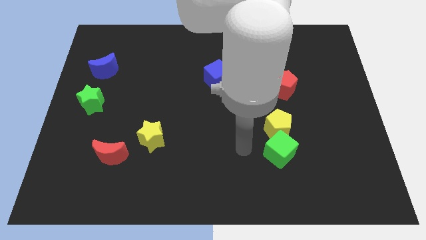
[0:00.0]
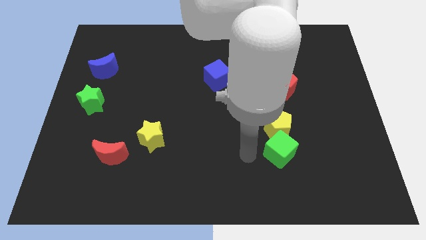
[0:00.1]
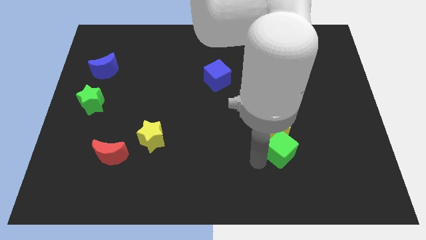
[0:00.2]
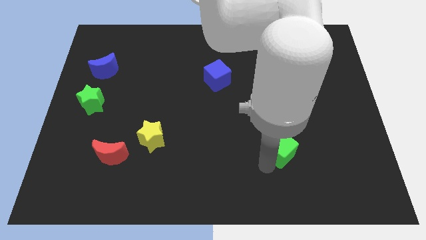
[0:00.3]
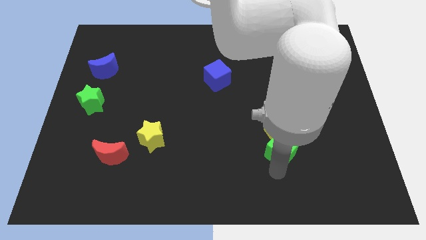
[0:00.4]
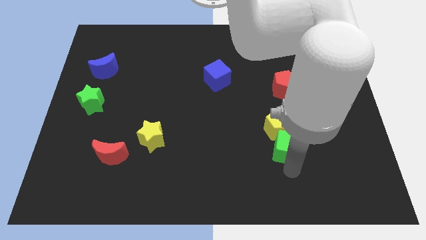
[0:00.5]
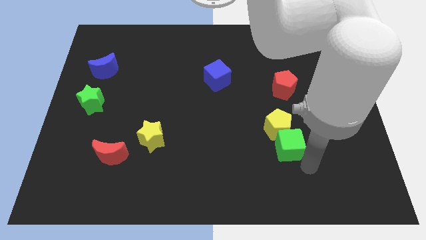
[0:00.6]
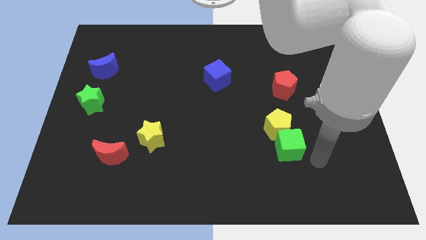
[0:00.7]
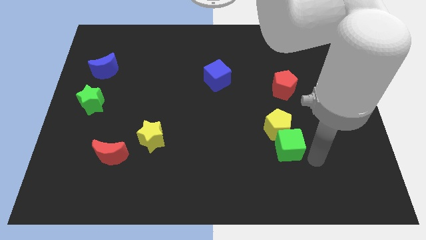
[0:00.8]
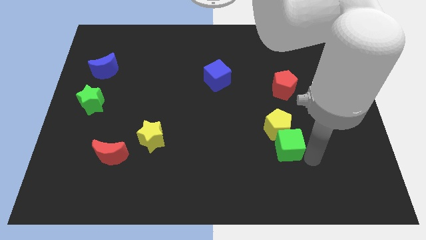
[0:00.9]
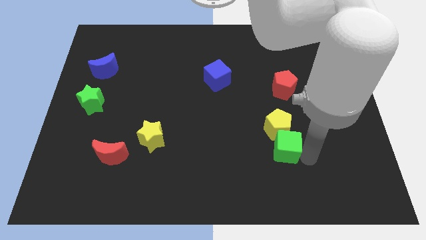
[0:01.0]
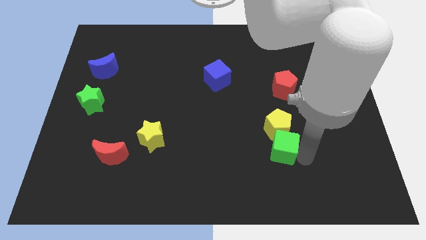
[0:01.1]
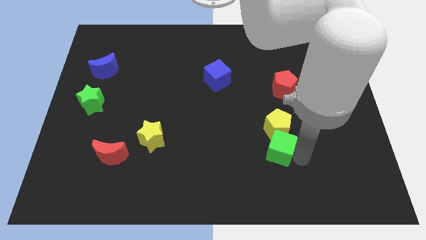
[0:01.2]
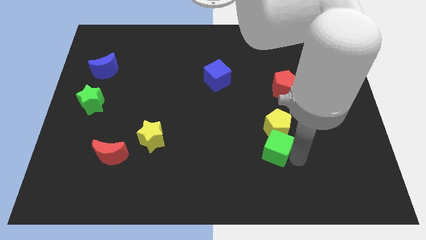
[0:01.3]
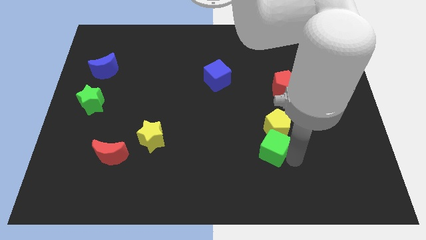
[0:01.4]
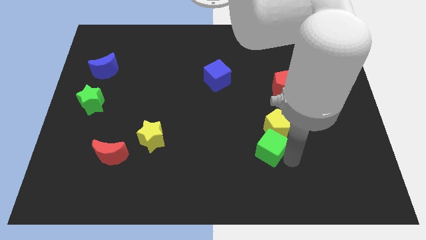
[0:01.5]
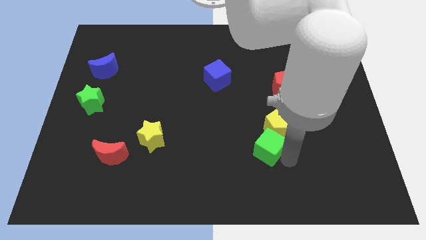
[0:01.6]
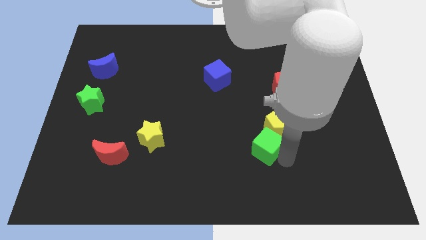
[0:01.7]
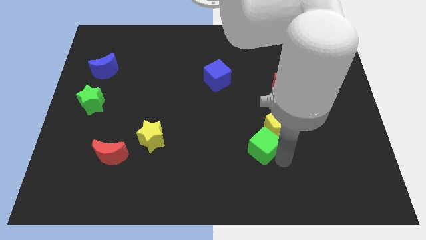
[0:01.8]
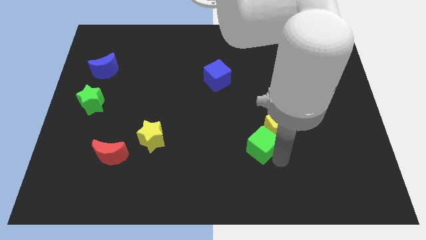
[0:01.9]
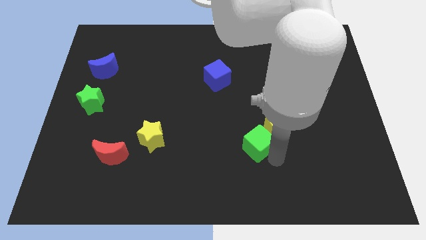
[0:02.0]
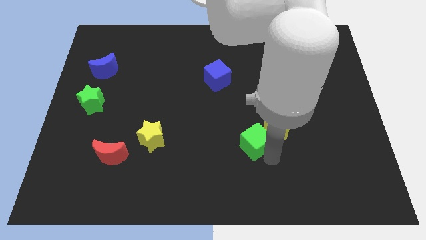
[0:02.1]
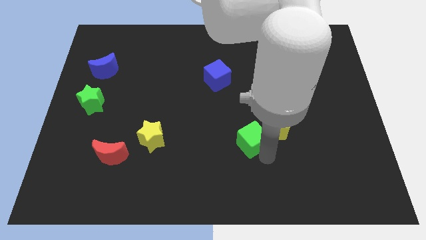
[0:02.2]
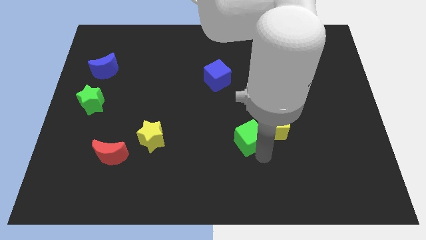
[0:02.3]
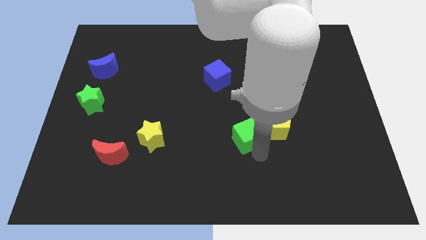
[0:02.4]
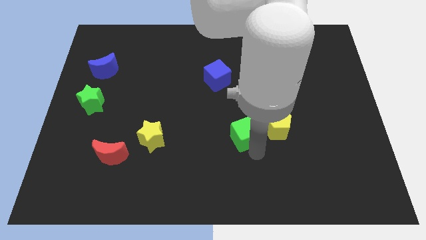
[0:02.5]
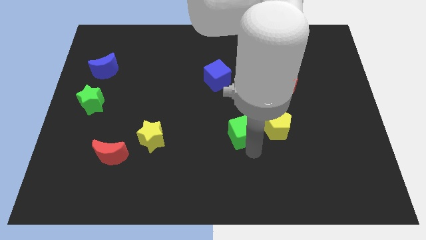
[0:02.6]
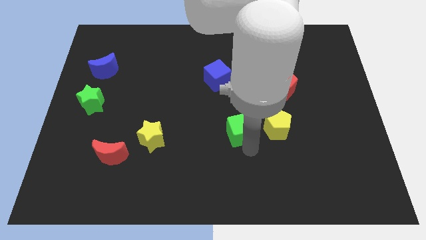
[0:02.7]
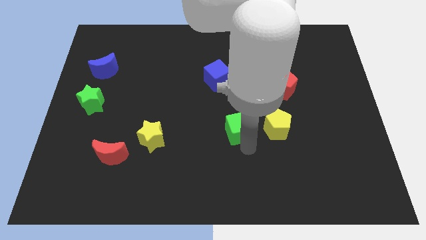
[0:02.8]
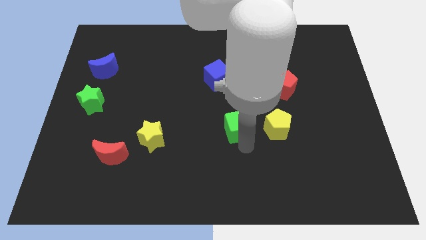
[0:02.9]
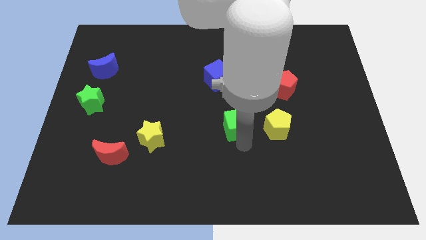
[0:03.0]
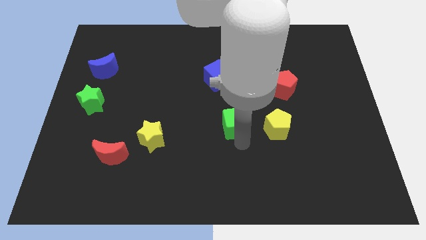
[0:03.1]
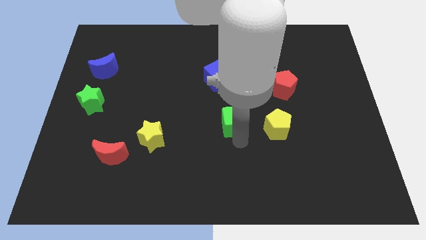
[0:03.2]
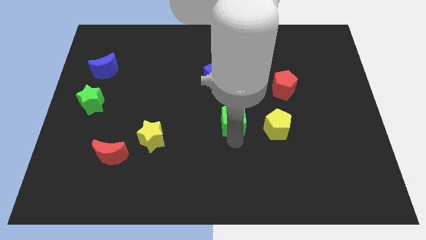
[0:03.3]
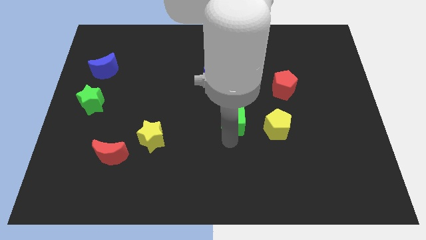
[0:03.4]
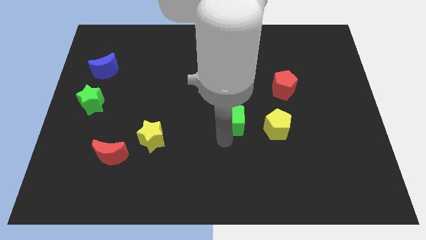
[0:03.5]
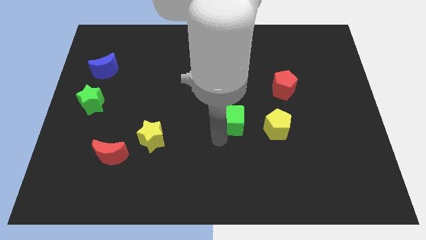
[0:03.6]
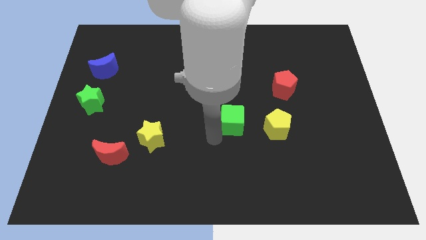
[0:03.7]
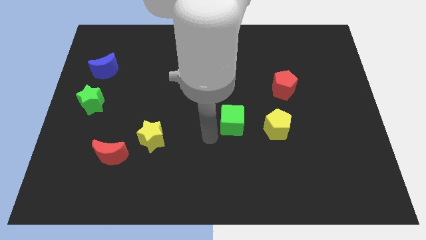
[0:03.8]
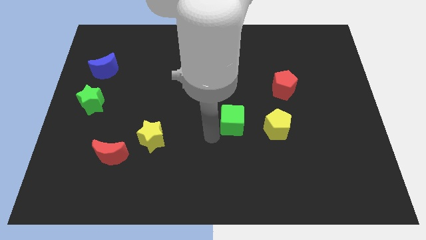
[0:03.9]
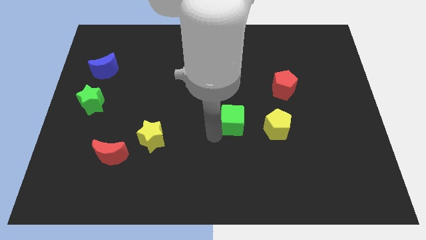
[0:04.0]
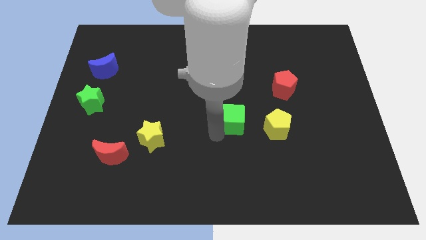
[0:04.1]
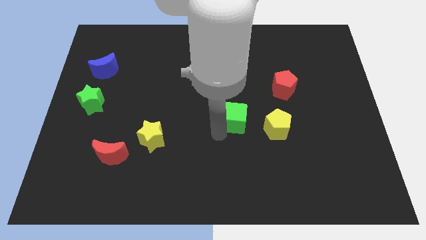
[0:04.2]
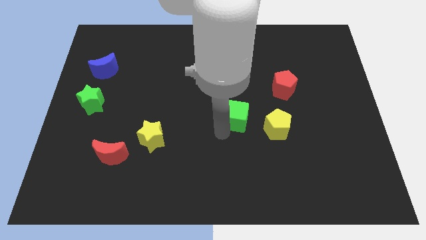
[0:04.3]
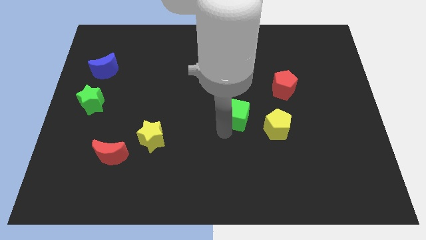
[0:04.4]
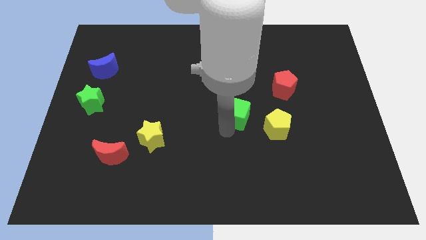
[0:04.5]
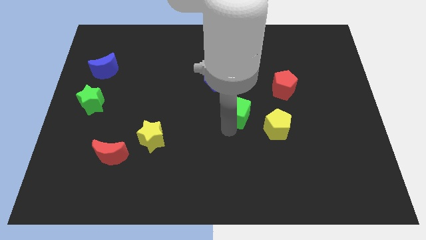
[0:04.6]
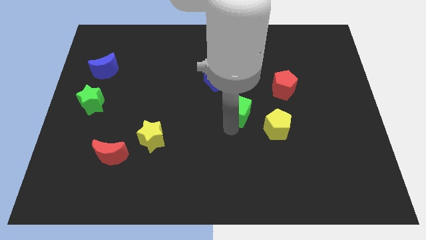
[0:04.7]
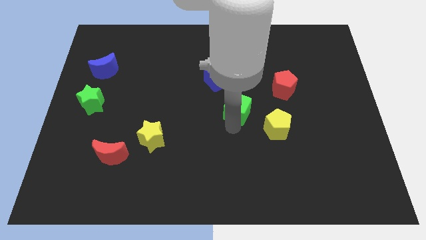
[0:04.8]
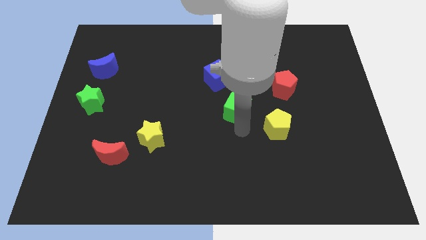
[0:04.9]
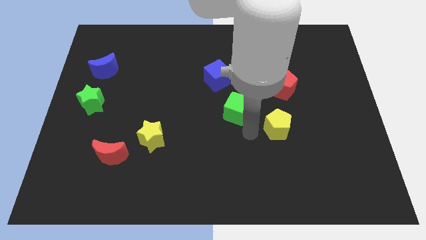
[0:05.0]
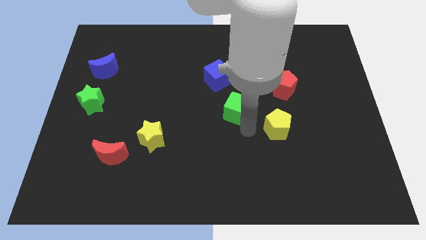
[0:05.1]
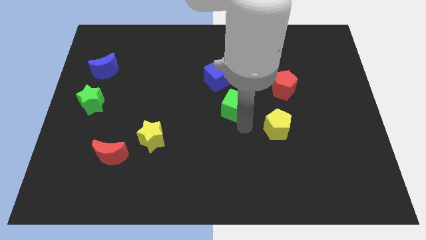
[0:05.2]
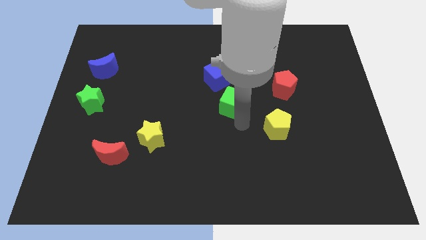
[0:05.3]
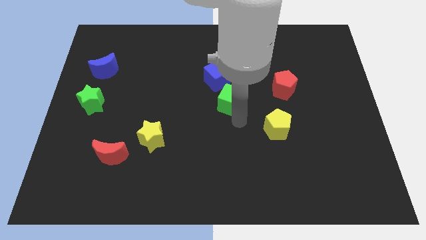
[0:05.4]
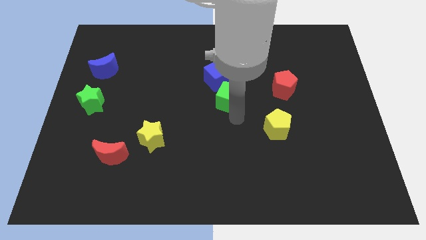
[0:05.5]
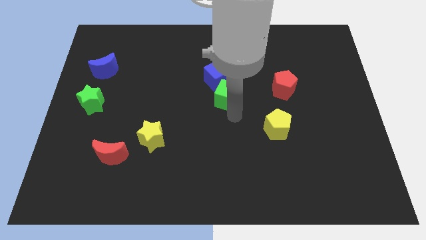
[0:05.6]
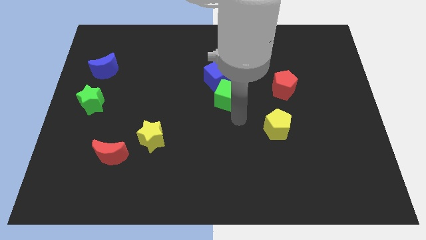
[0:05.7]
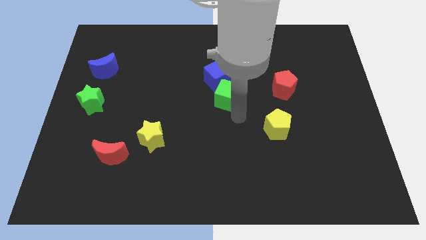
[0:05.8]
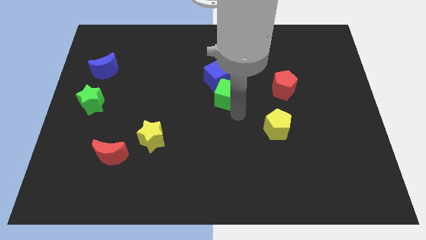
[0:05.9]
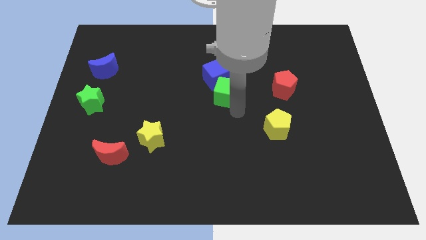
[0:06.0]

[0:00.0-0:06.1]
slide the green cube next to the blue cube
